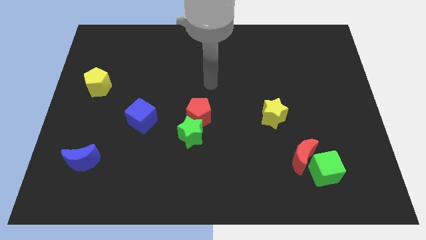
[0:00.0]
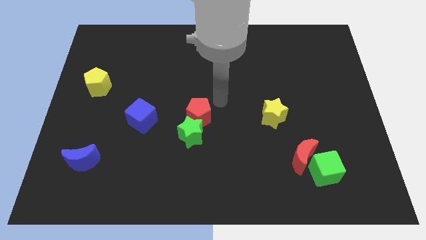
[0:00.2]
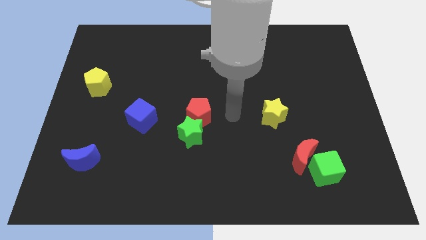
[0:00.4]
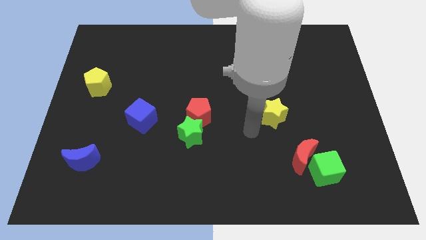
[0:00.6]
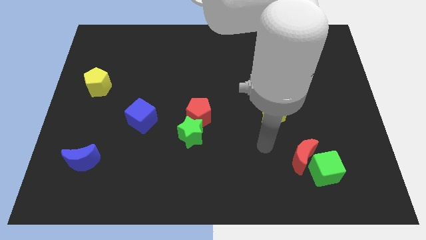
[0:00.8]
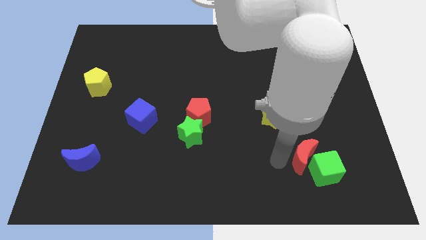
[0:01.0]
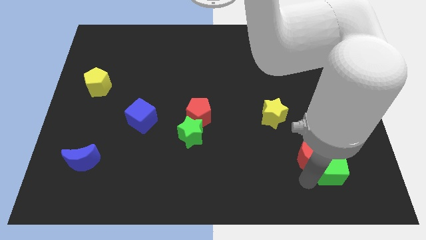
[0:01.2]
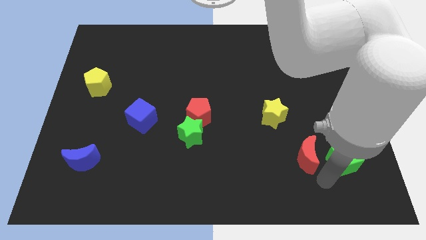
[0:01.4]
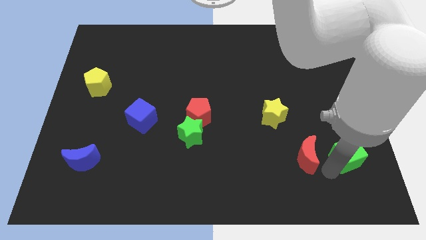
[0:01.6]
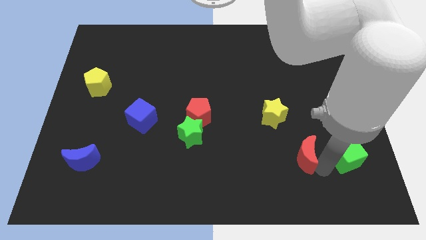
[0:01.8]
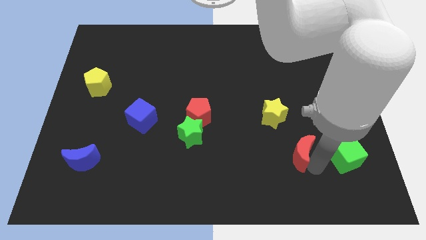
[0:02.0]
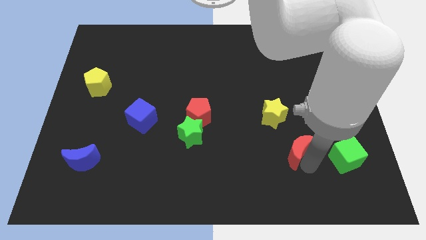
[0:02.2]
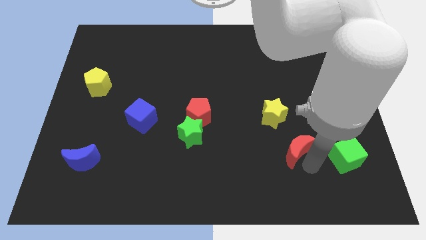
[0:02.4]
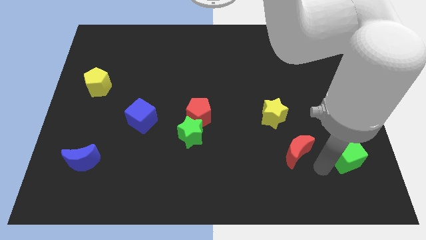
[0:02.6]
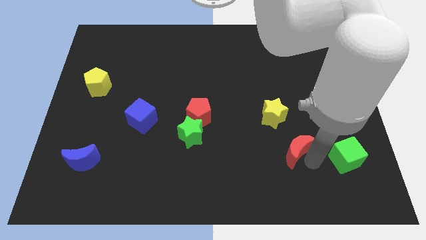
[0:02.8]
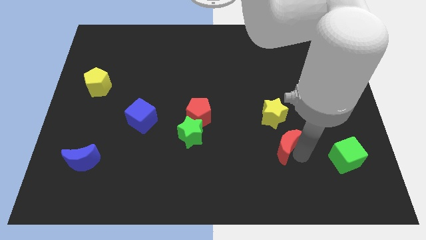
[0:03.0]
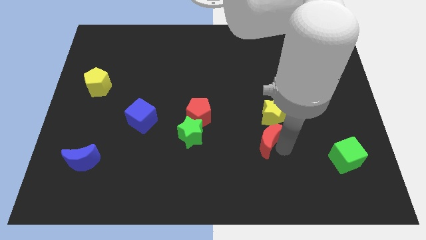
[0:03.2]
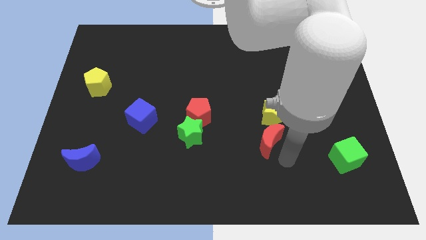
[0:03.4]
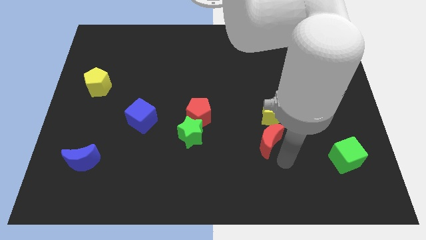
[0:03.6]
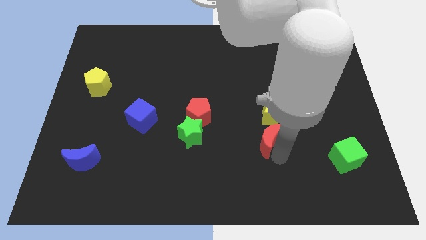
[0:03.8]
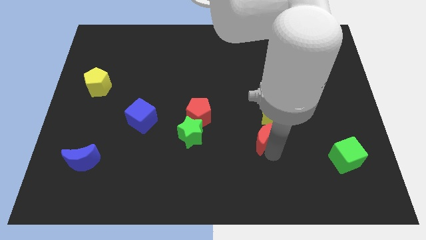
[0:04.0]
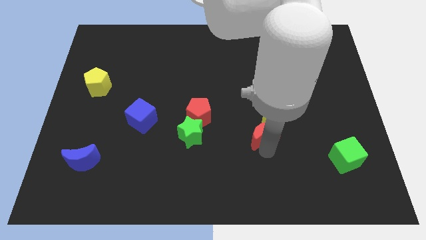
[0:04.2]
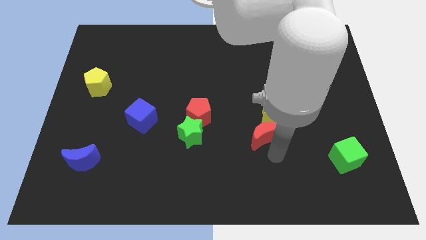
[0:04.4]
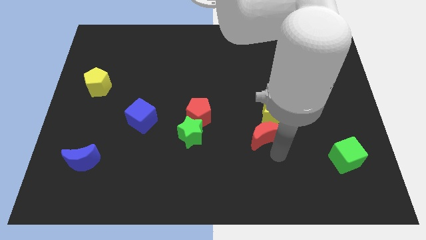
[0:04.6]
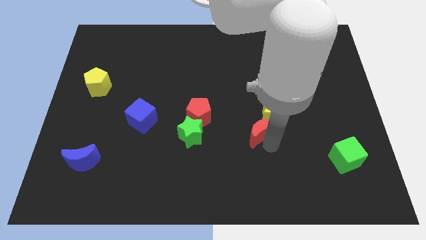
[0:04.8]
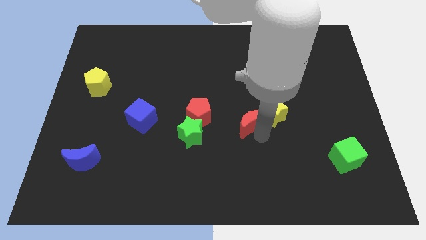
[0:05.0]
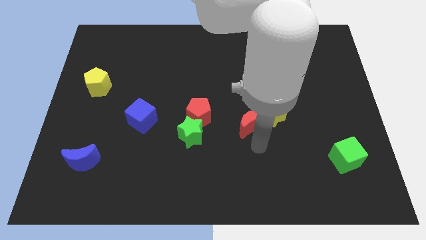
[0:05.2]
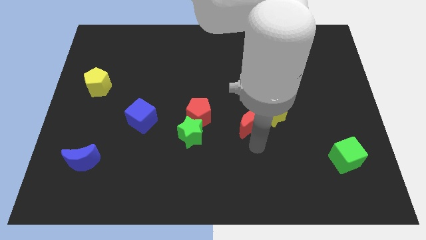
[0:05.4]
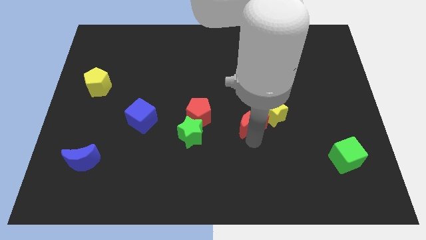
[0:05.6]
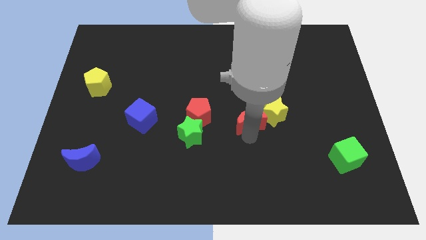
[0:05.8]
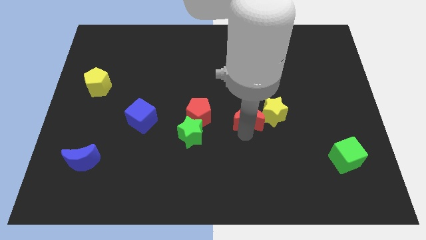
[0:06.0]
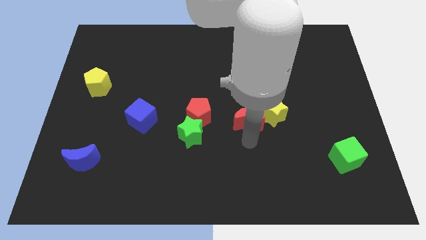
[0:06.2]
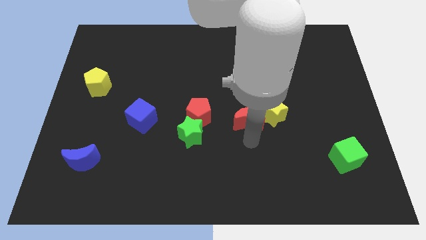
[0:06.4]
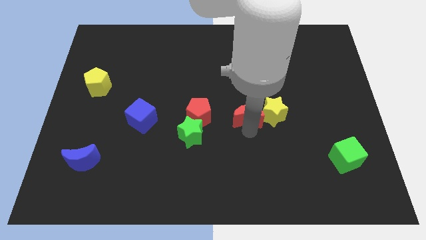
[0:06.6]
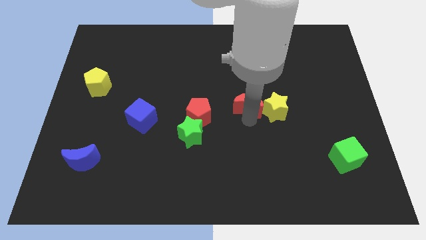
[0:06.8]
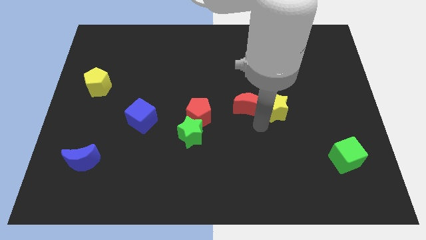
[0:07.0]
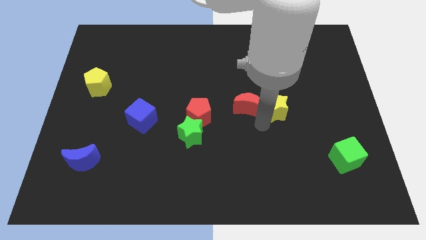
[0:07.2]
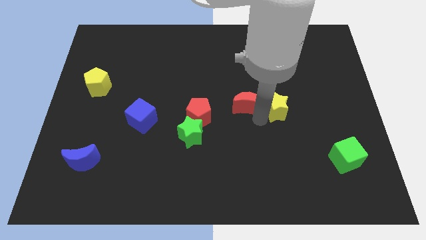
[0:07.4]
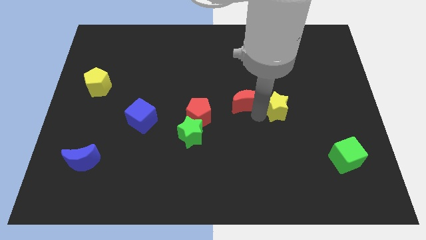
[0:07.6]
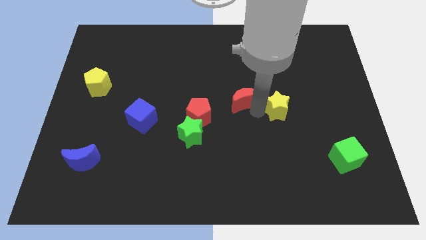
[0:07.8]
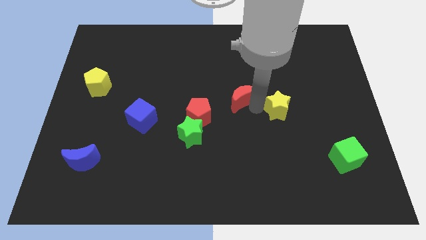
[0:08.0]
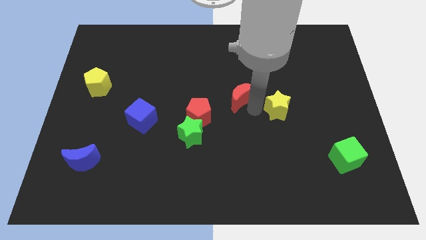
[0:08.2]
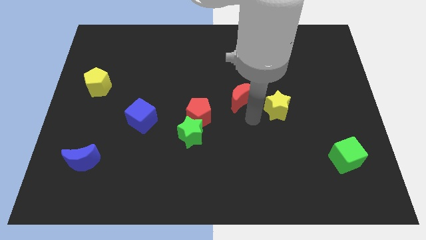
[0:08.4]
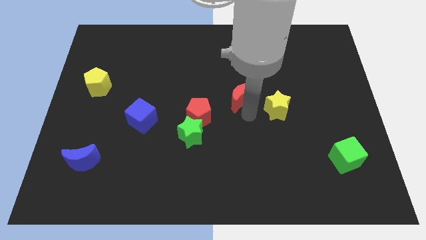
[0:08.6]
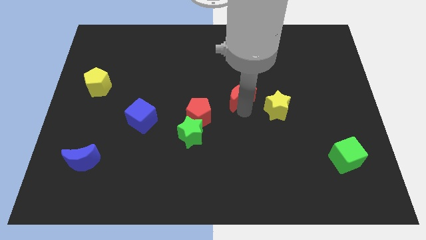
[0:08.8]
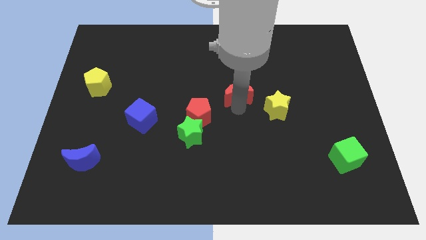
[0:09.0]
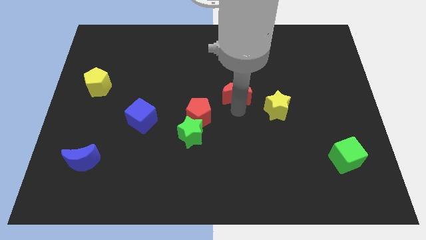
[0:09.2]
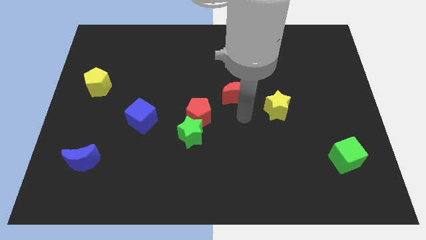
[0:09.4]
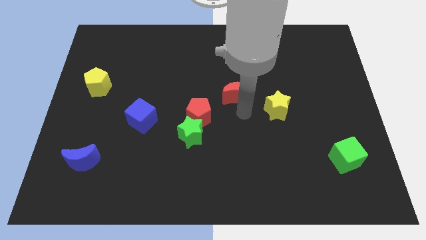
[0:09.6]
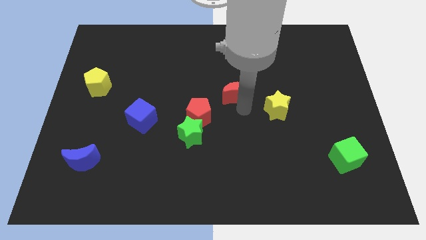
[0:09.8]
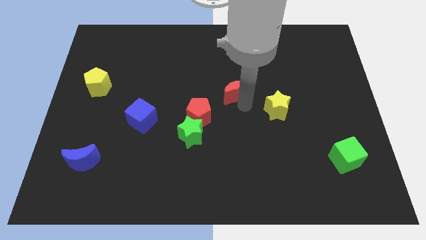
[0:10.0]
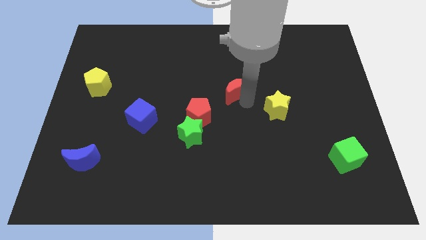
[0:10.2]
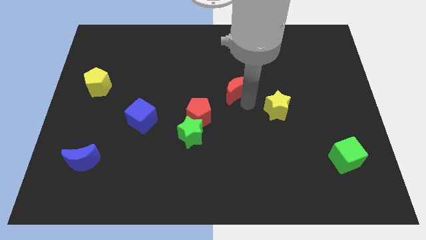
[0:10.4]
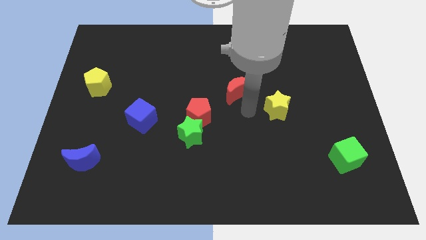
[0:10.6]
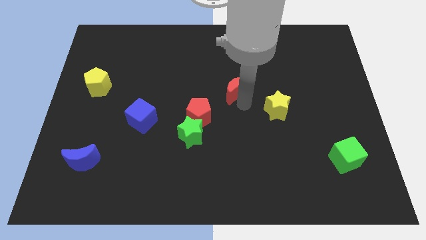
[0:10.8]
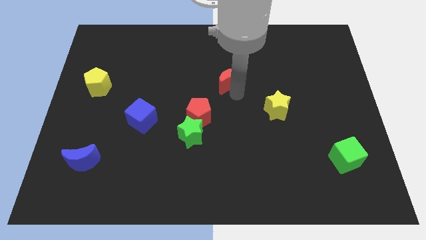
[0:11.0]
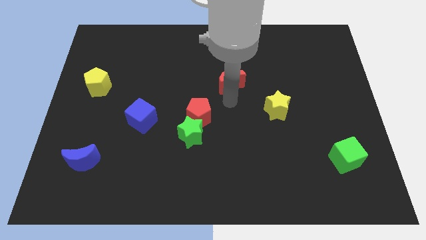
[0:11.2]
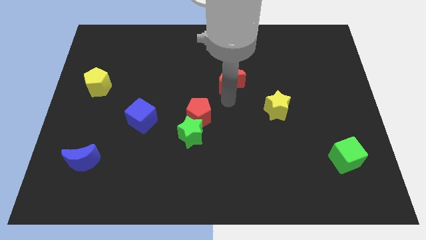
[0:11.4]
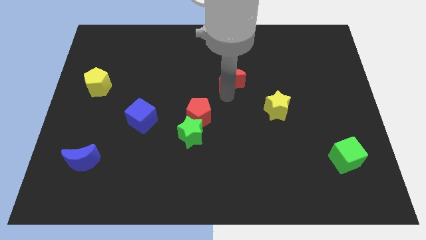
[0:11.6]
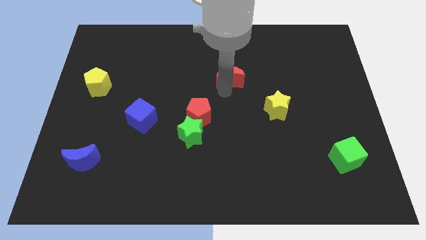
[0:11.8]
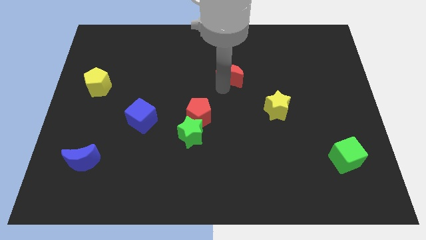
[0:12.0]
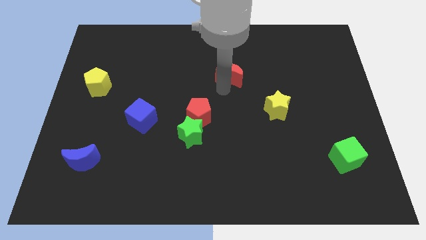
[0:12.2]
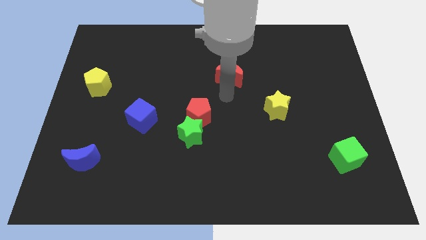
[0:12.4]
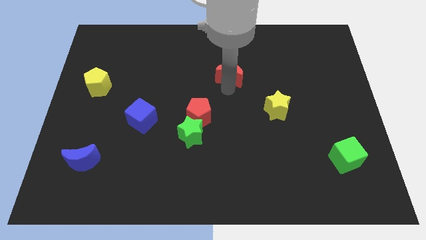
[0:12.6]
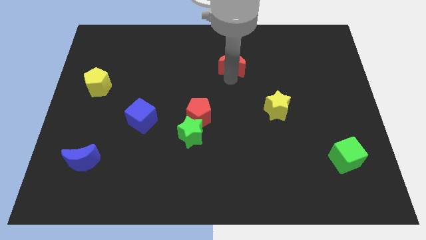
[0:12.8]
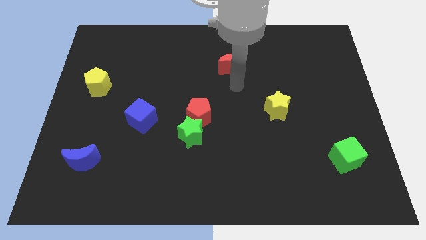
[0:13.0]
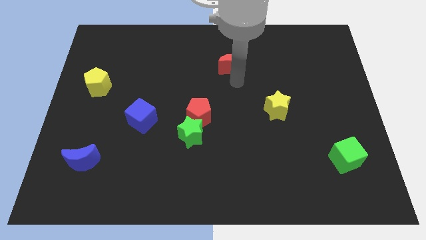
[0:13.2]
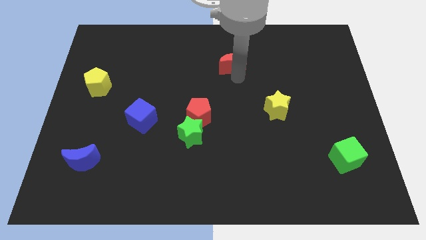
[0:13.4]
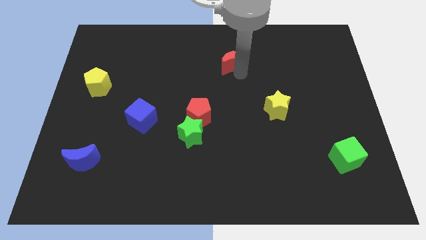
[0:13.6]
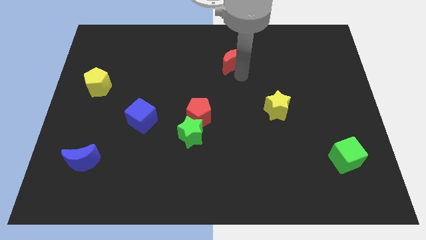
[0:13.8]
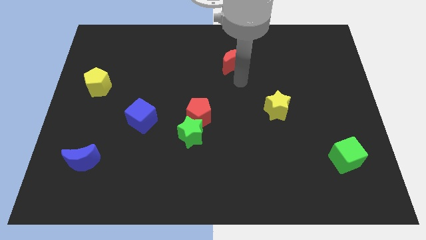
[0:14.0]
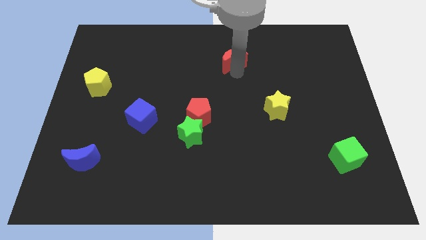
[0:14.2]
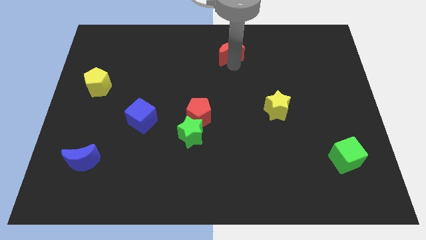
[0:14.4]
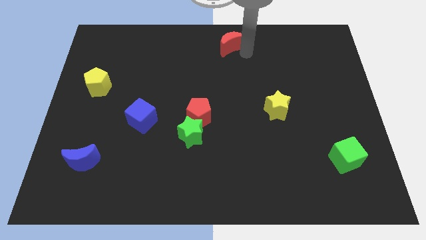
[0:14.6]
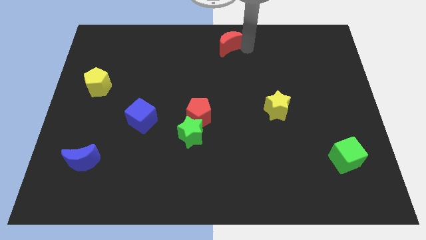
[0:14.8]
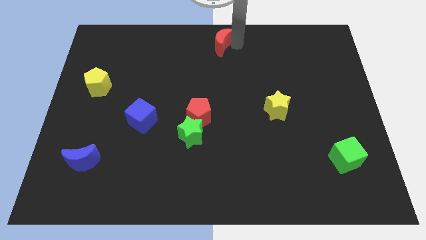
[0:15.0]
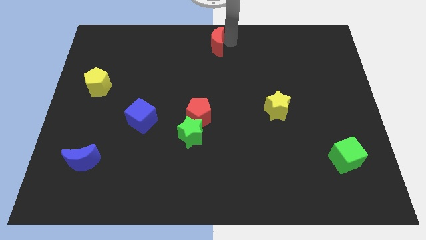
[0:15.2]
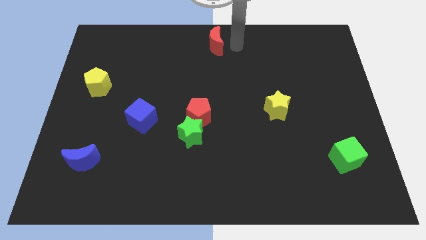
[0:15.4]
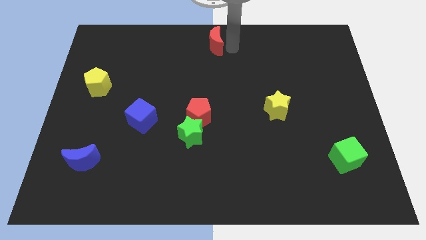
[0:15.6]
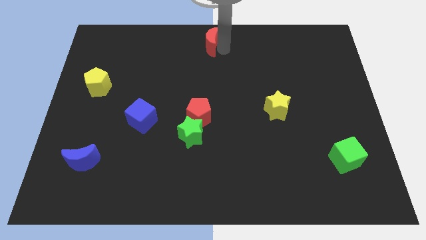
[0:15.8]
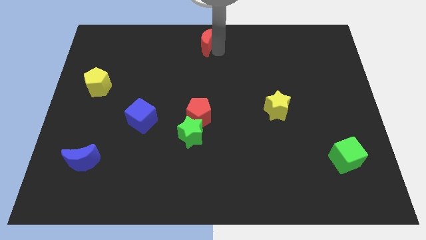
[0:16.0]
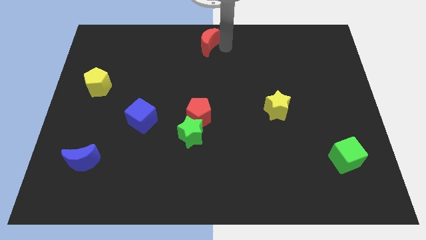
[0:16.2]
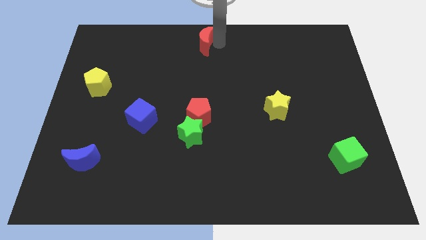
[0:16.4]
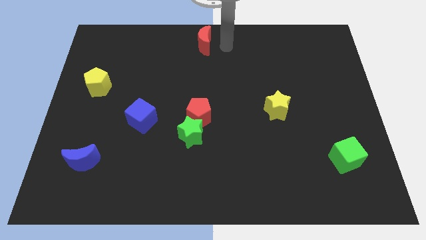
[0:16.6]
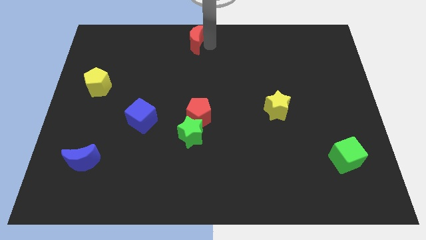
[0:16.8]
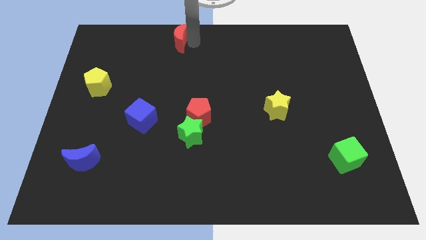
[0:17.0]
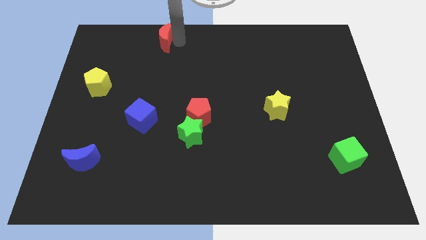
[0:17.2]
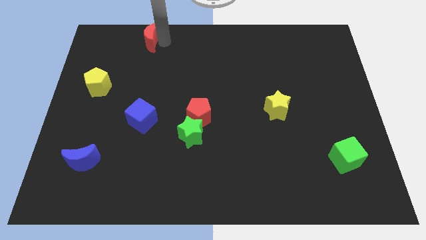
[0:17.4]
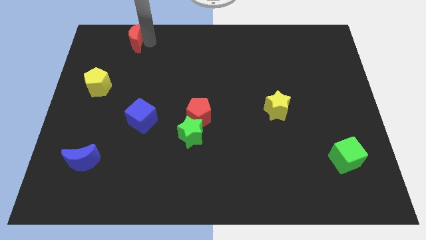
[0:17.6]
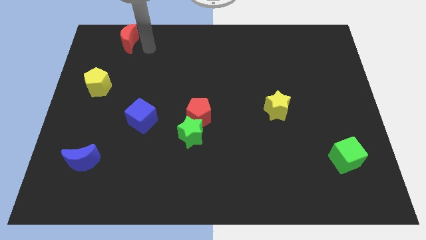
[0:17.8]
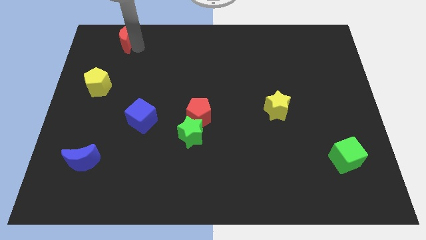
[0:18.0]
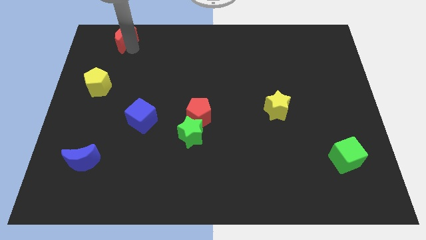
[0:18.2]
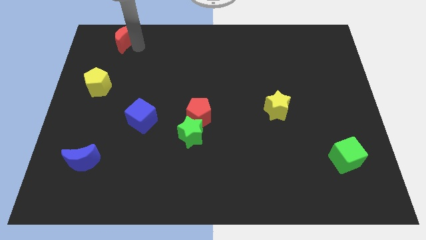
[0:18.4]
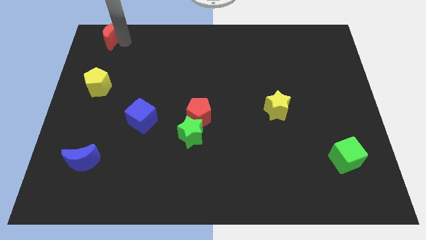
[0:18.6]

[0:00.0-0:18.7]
put the red moon to the top left
